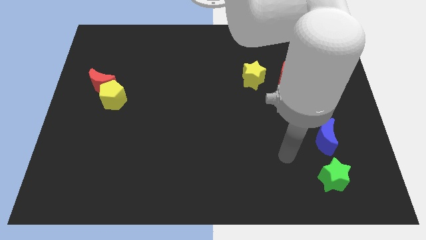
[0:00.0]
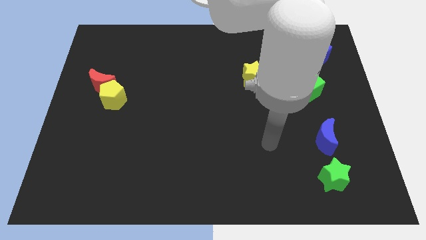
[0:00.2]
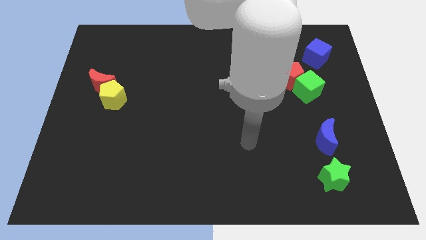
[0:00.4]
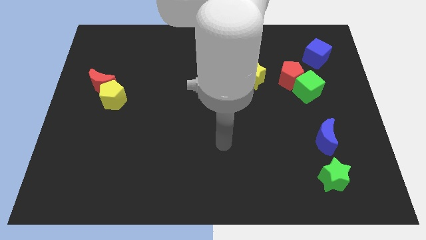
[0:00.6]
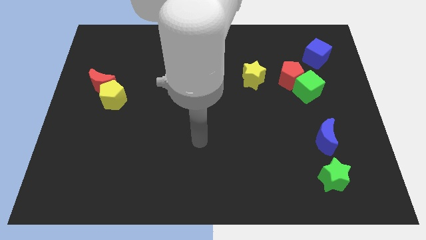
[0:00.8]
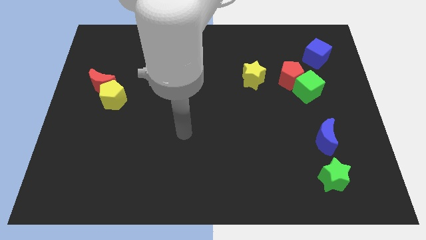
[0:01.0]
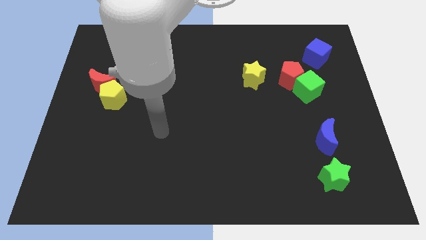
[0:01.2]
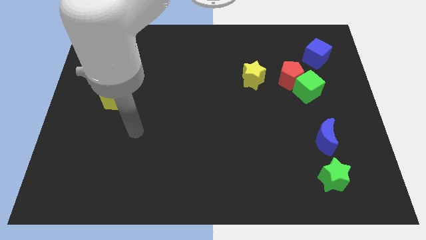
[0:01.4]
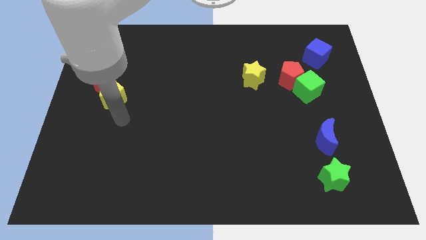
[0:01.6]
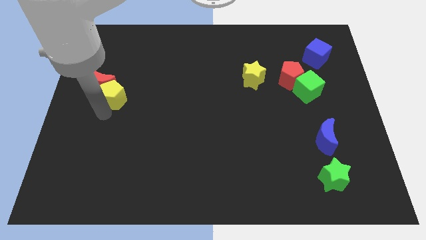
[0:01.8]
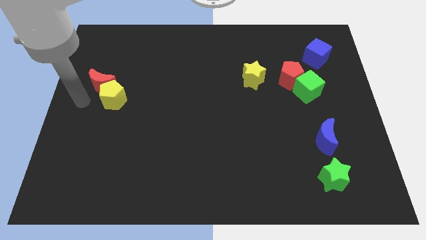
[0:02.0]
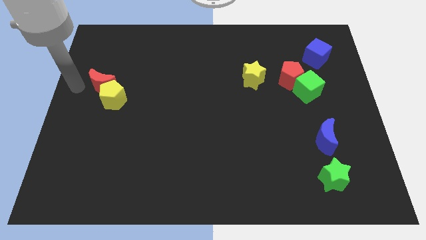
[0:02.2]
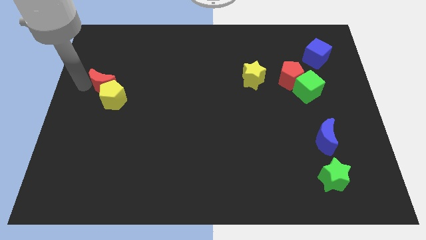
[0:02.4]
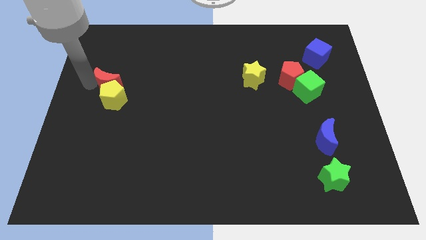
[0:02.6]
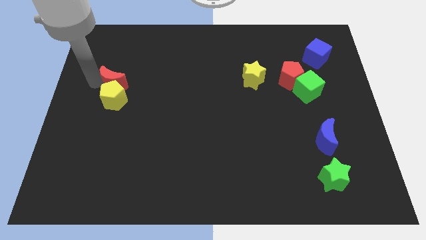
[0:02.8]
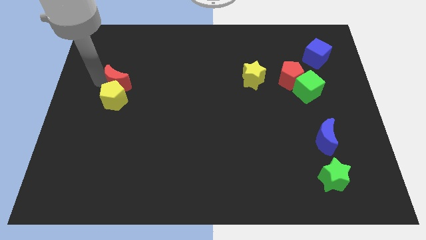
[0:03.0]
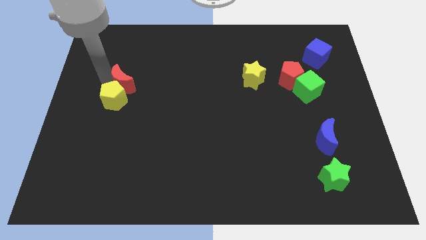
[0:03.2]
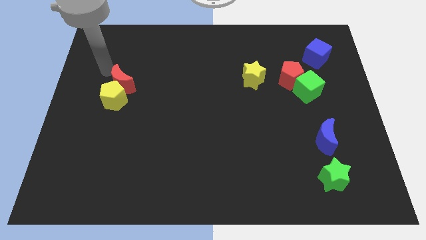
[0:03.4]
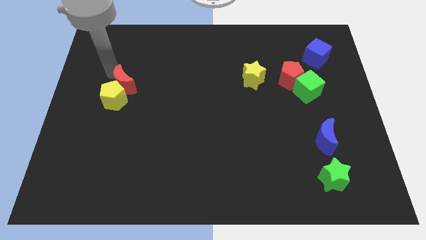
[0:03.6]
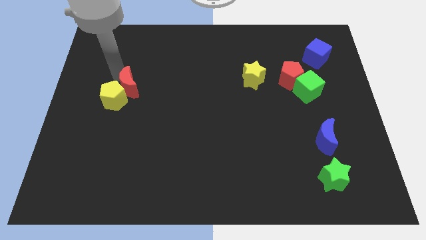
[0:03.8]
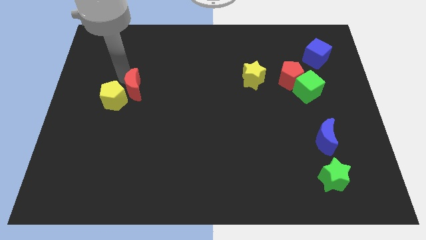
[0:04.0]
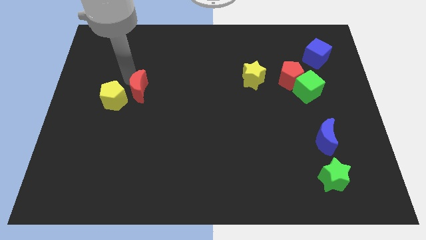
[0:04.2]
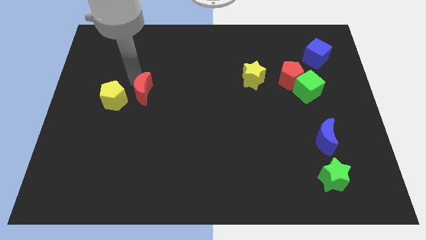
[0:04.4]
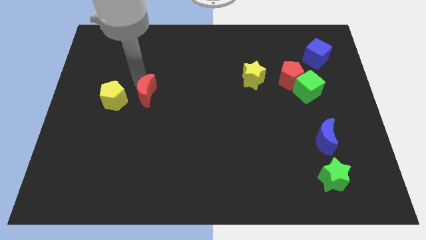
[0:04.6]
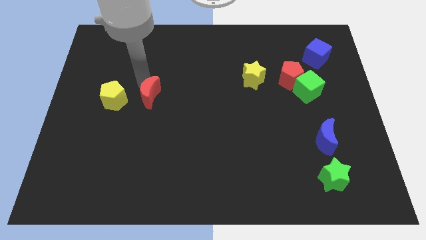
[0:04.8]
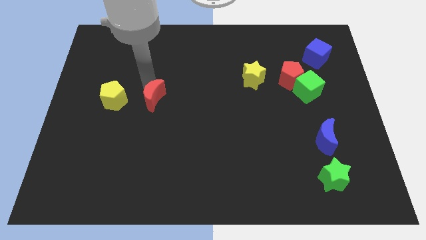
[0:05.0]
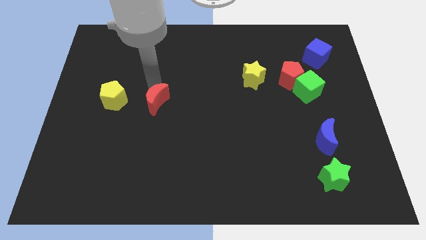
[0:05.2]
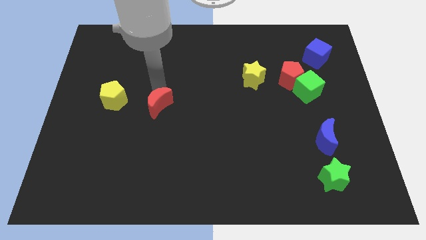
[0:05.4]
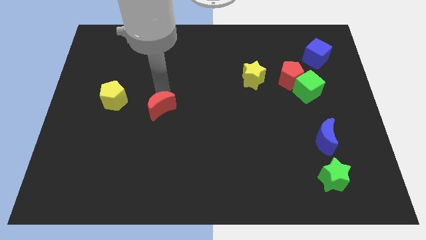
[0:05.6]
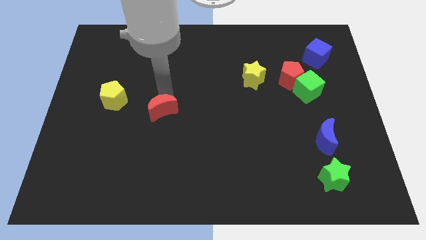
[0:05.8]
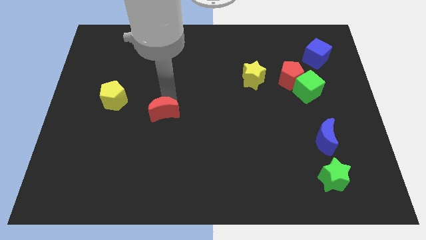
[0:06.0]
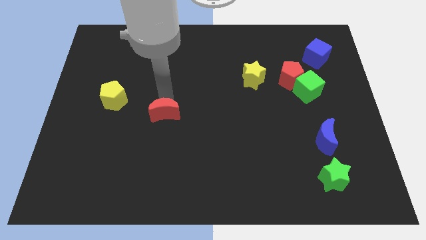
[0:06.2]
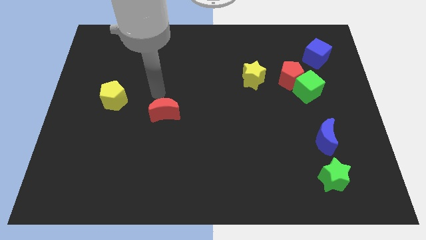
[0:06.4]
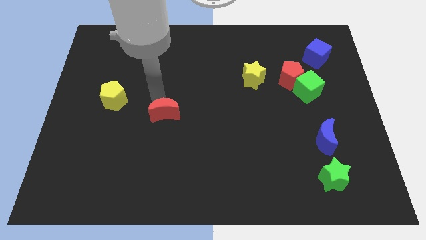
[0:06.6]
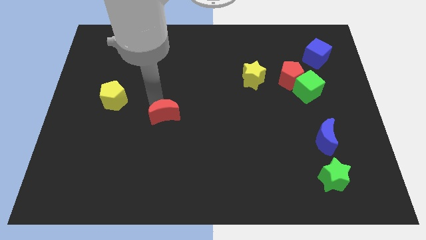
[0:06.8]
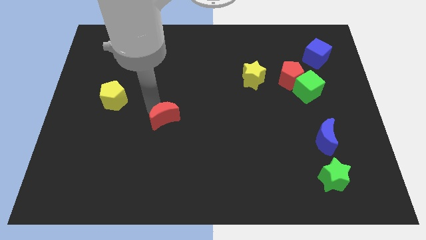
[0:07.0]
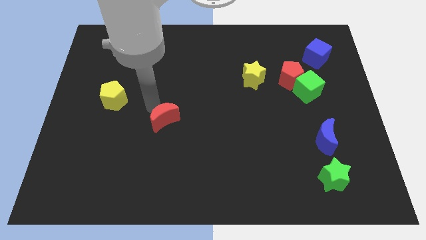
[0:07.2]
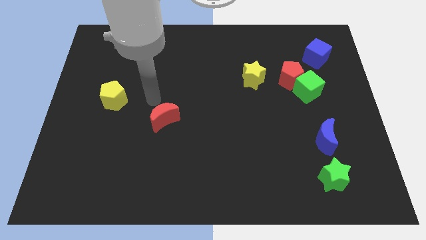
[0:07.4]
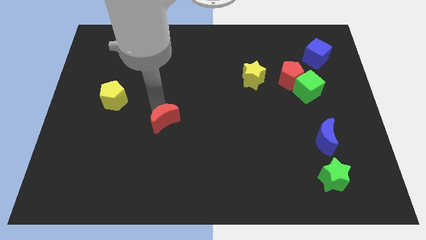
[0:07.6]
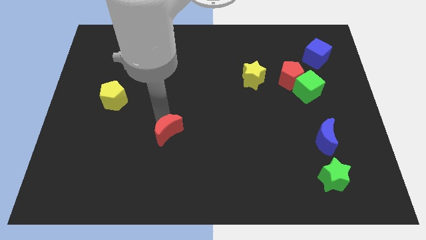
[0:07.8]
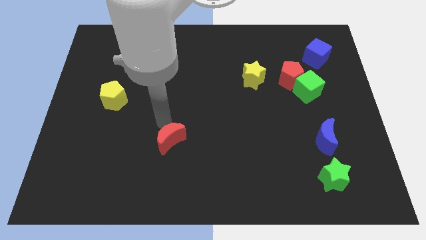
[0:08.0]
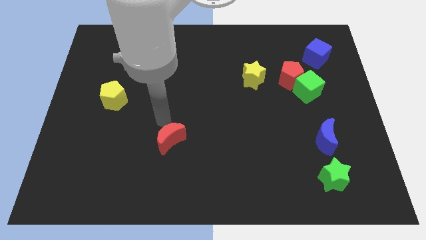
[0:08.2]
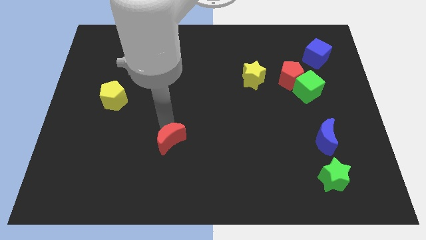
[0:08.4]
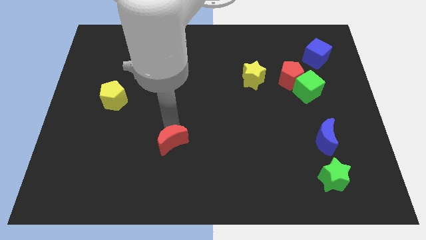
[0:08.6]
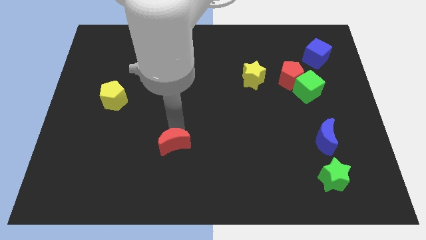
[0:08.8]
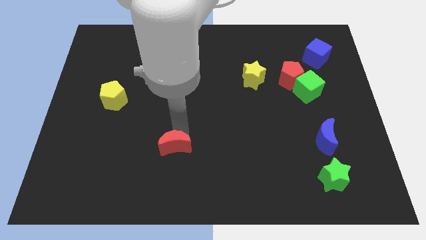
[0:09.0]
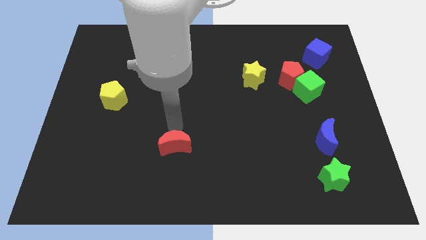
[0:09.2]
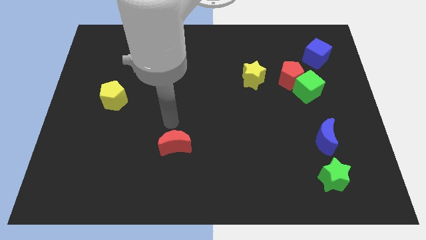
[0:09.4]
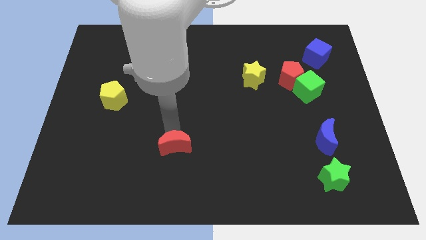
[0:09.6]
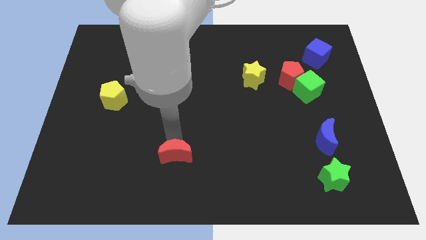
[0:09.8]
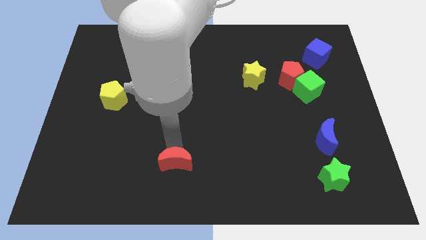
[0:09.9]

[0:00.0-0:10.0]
slide the red moon to the bottom side

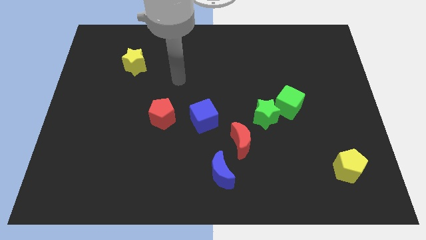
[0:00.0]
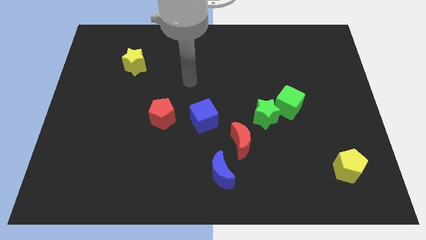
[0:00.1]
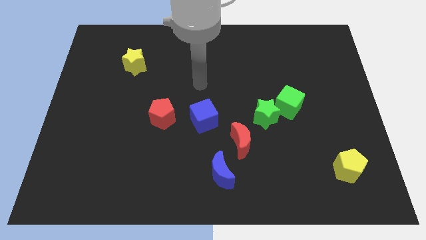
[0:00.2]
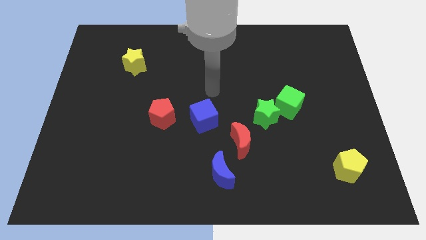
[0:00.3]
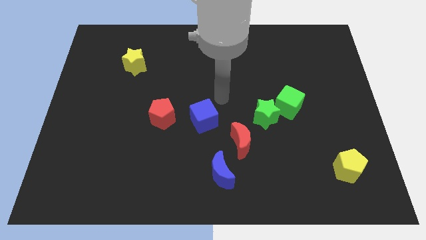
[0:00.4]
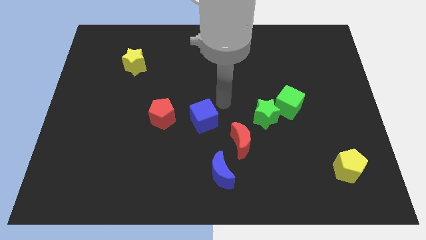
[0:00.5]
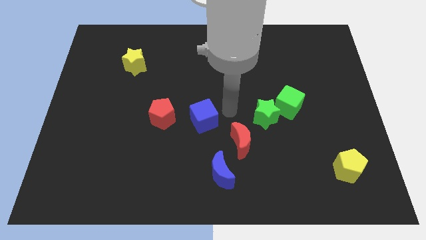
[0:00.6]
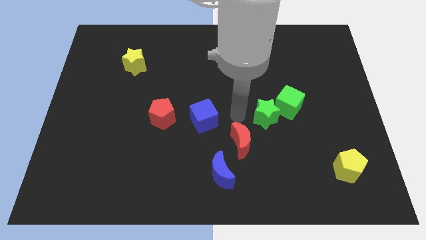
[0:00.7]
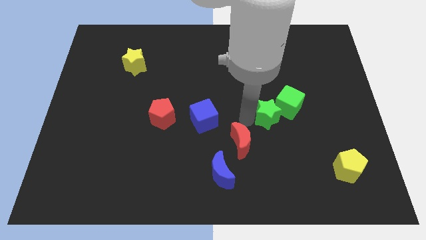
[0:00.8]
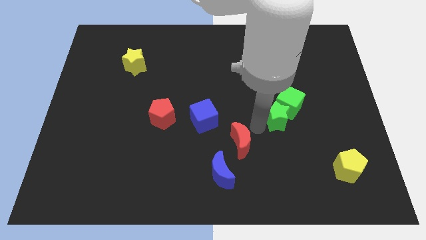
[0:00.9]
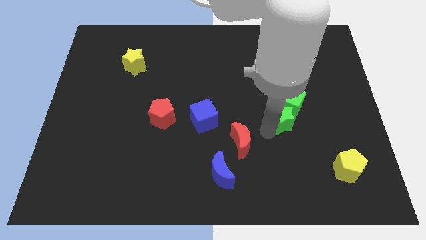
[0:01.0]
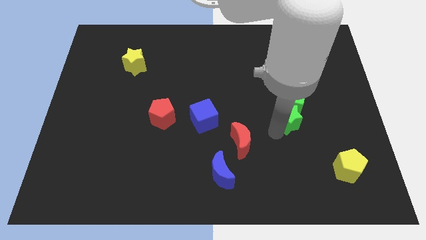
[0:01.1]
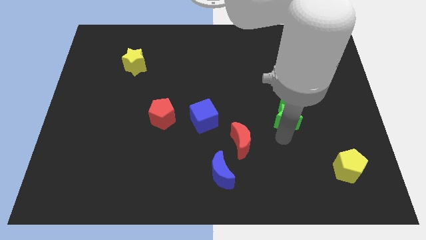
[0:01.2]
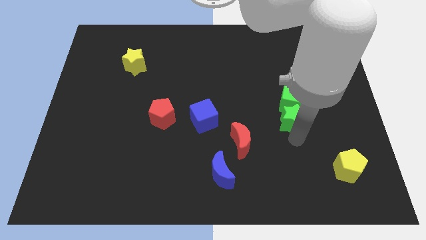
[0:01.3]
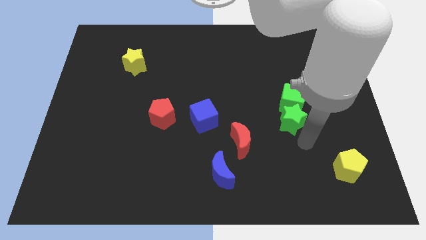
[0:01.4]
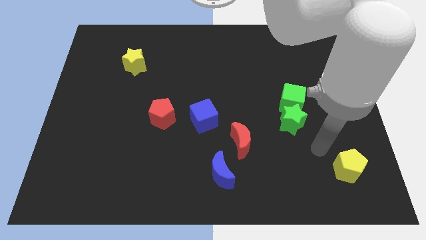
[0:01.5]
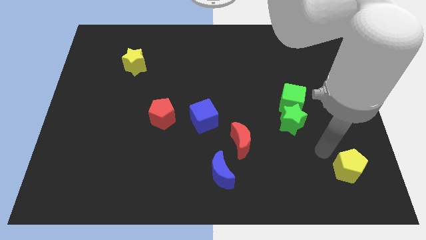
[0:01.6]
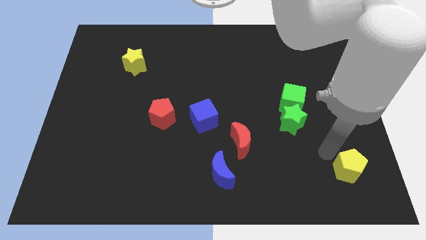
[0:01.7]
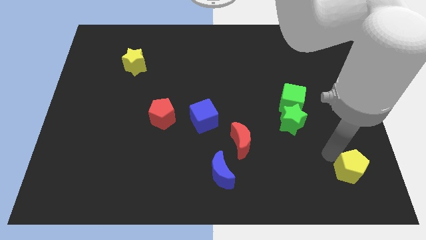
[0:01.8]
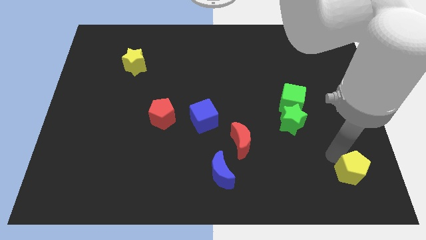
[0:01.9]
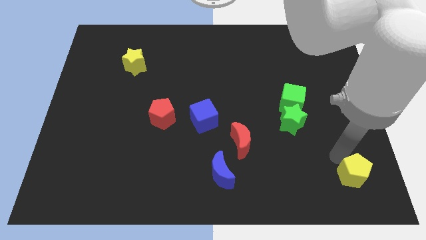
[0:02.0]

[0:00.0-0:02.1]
push the yellow pentagon to the bottom right
